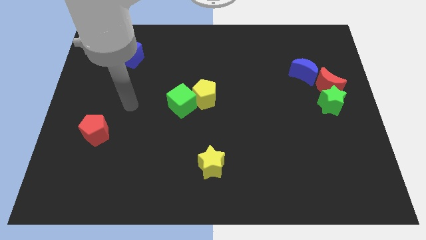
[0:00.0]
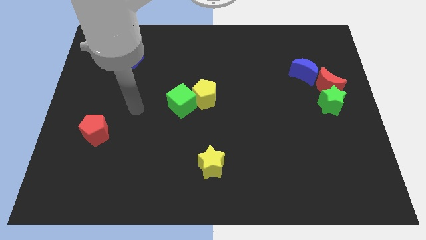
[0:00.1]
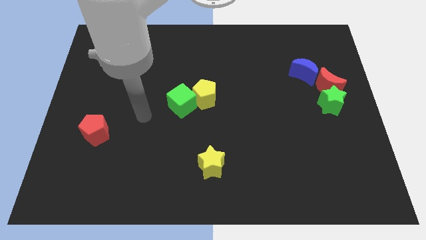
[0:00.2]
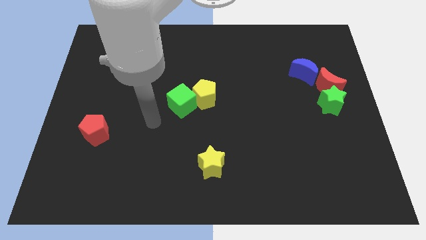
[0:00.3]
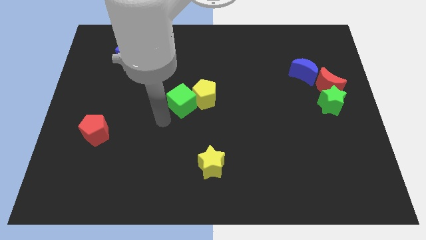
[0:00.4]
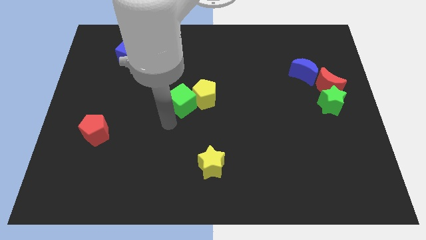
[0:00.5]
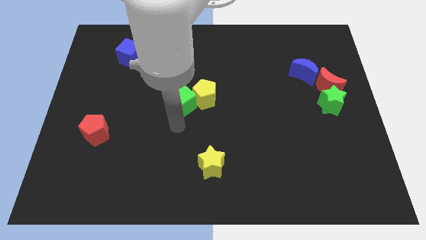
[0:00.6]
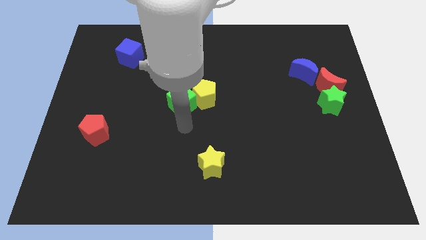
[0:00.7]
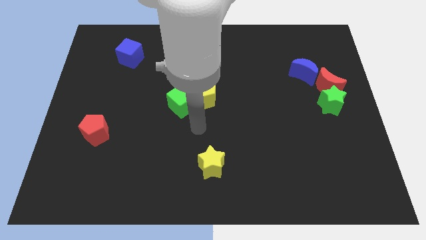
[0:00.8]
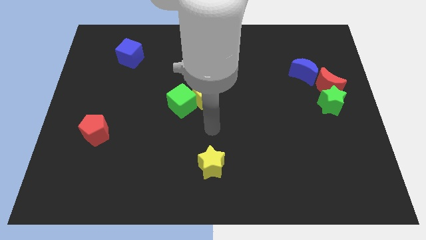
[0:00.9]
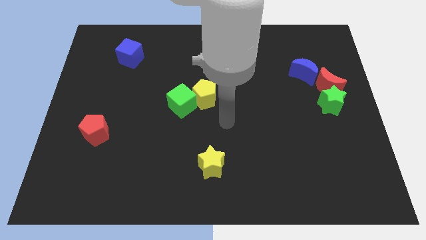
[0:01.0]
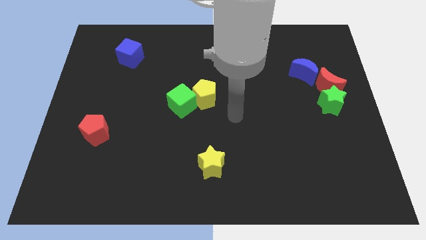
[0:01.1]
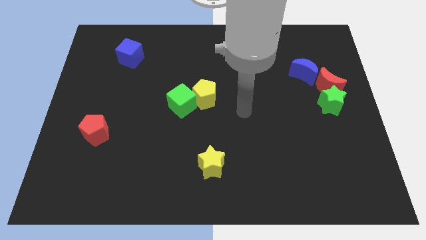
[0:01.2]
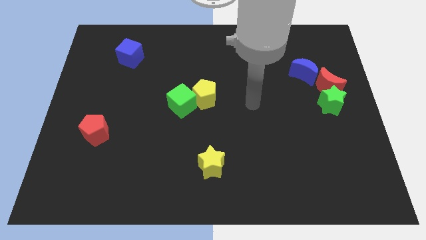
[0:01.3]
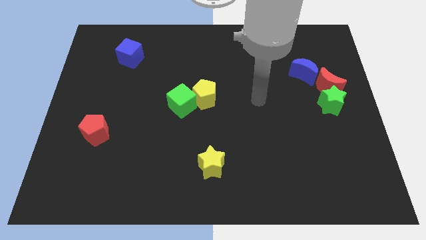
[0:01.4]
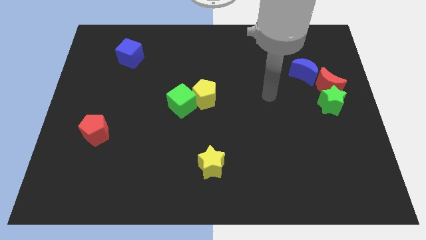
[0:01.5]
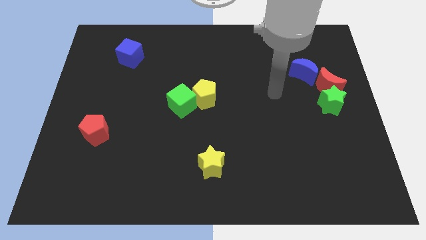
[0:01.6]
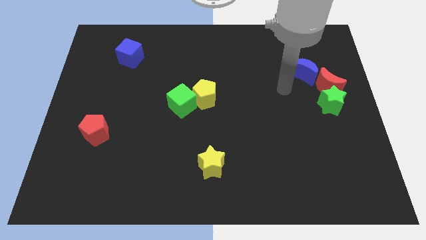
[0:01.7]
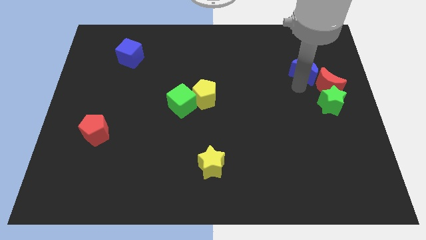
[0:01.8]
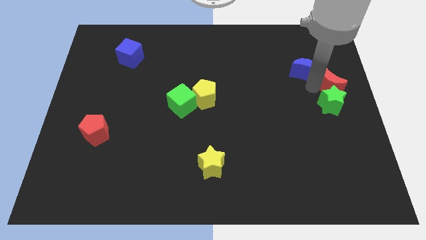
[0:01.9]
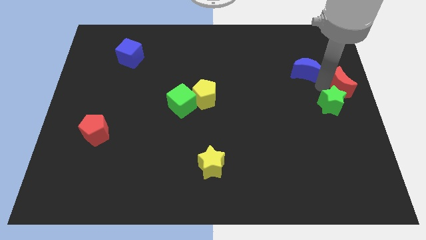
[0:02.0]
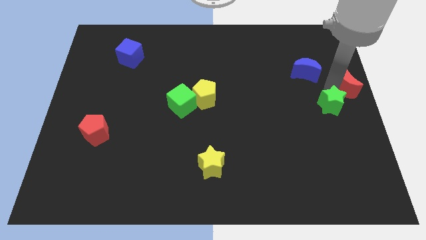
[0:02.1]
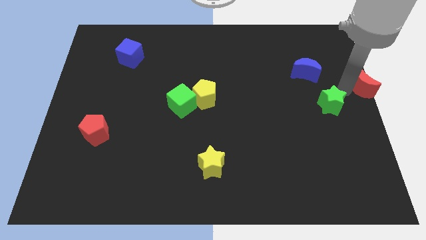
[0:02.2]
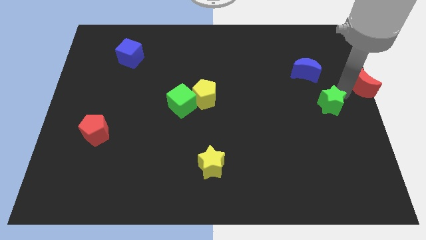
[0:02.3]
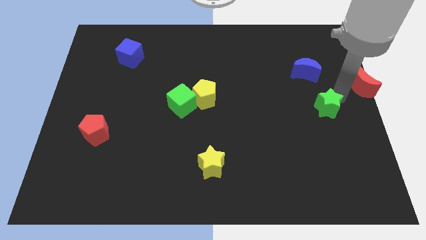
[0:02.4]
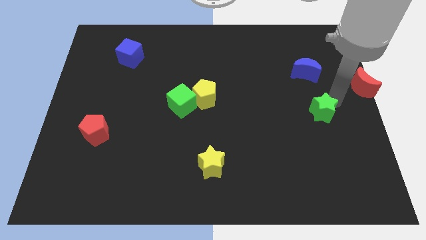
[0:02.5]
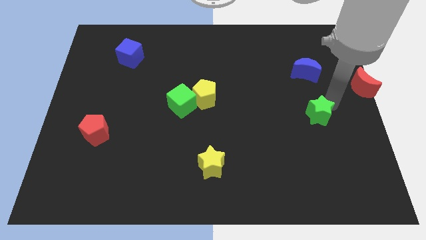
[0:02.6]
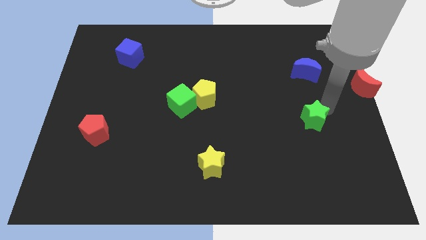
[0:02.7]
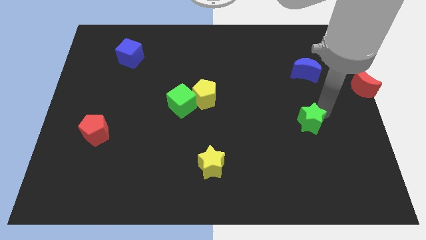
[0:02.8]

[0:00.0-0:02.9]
move the green star slightly diagonally down and to the left

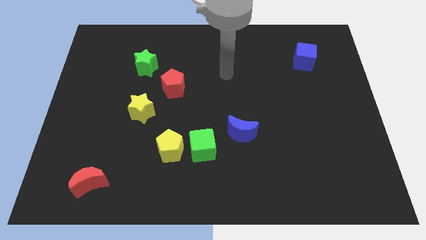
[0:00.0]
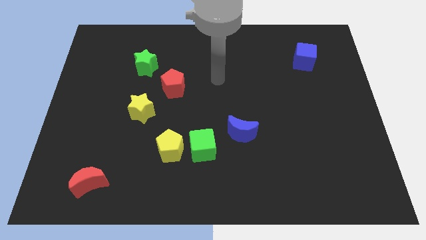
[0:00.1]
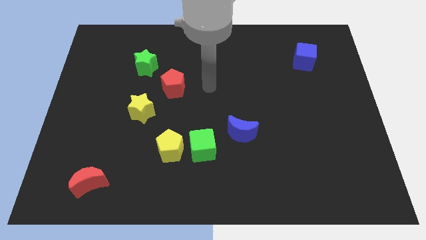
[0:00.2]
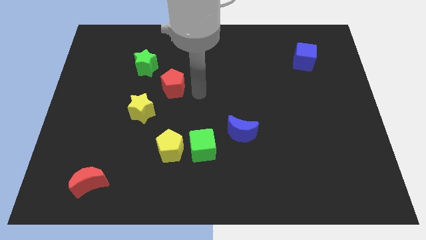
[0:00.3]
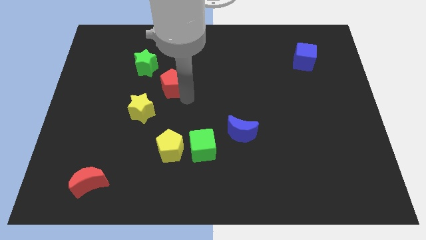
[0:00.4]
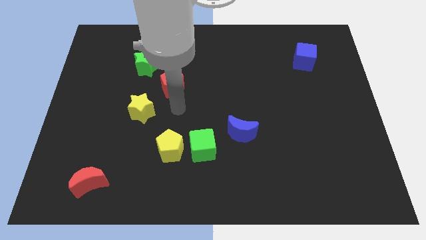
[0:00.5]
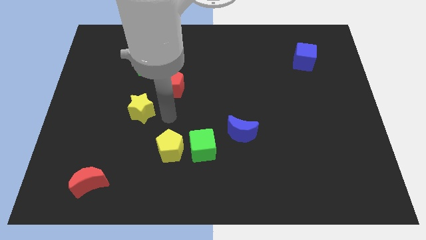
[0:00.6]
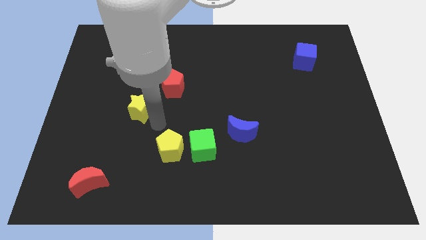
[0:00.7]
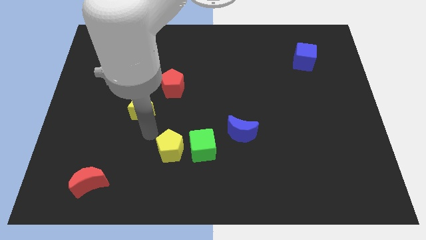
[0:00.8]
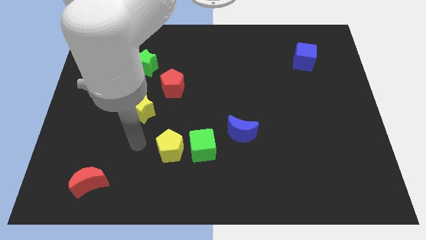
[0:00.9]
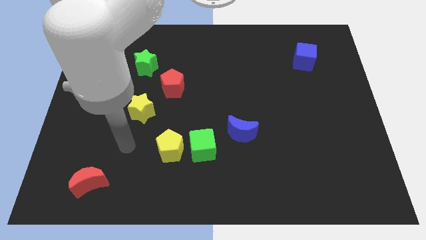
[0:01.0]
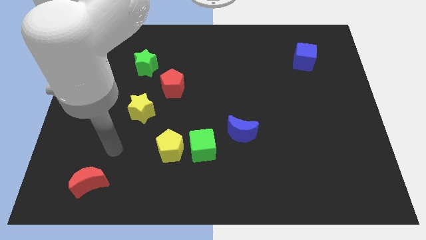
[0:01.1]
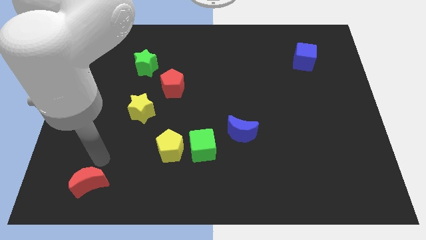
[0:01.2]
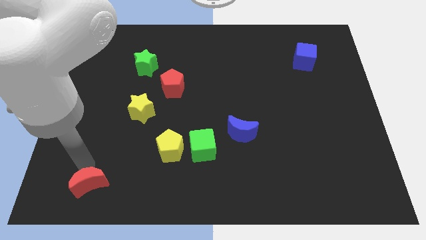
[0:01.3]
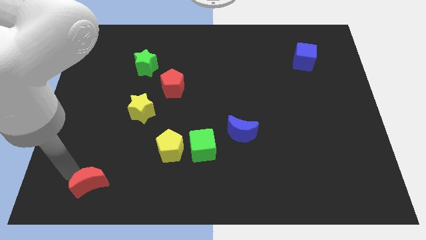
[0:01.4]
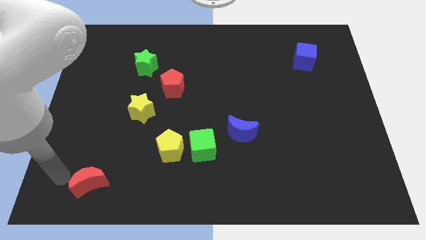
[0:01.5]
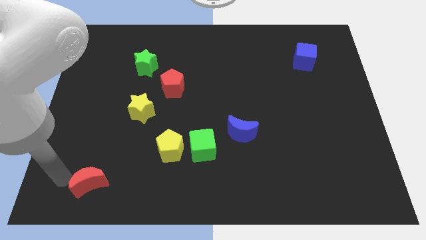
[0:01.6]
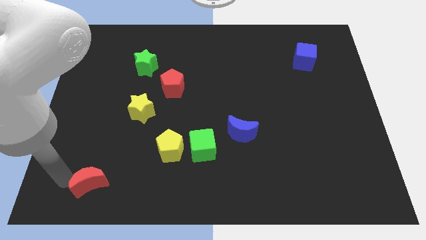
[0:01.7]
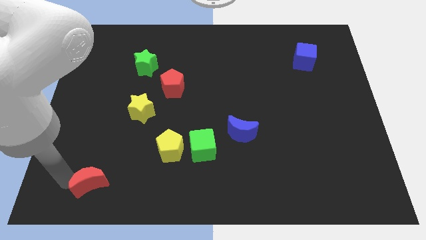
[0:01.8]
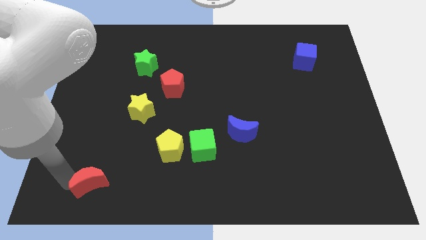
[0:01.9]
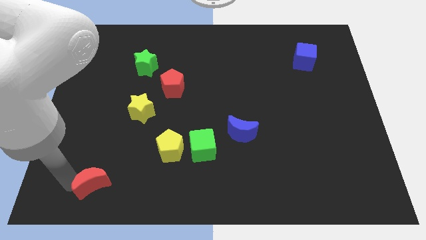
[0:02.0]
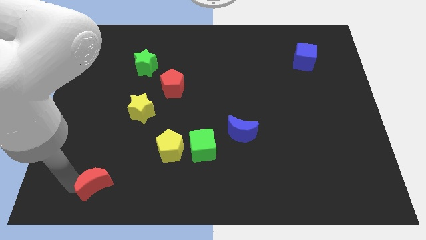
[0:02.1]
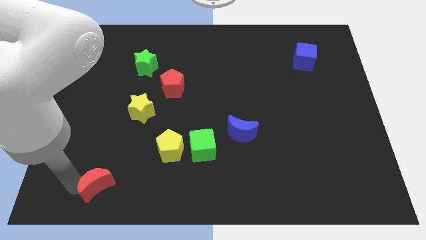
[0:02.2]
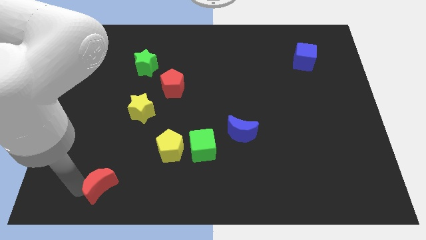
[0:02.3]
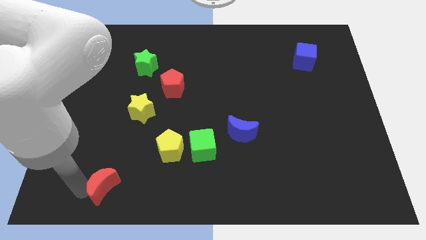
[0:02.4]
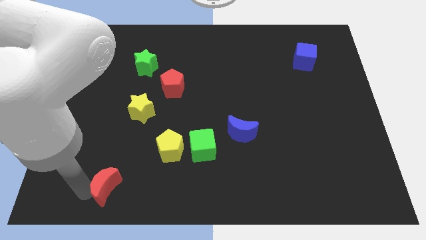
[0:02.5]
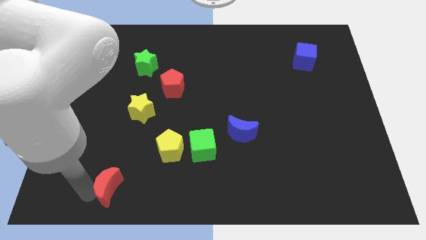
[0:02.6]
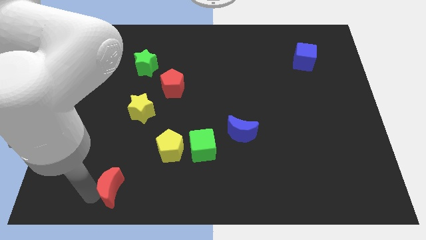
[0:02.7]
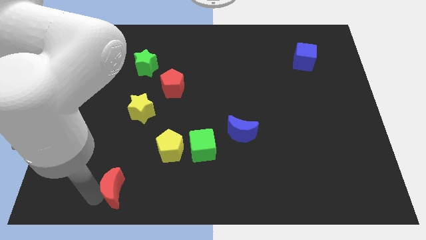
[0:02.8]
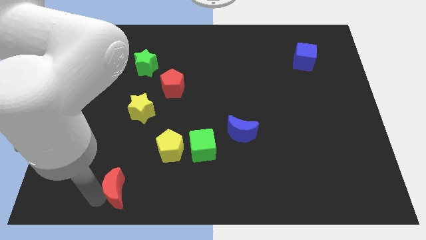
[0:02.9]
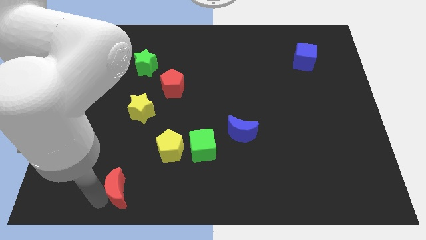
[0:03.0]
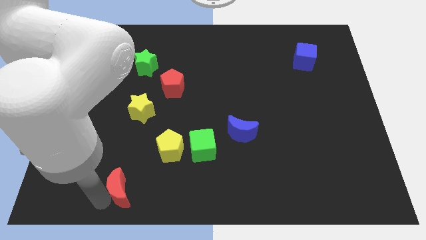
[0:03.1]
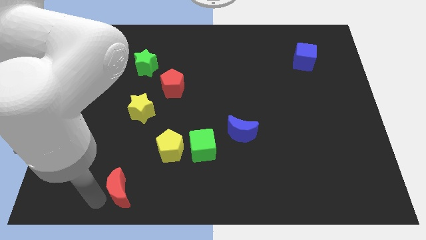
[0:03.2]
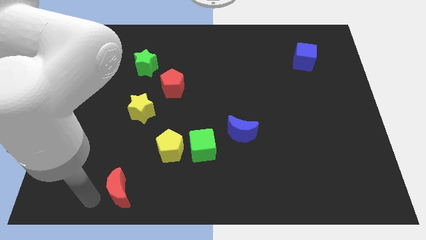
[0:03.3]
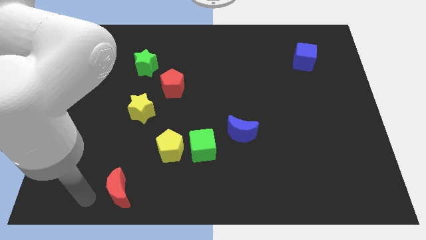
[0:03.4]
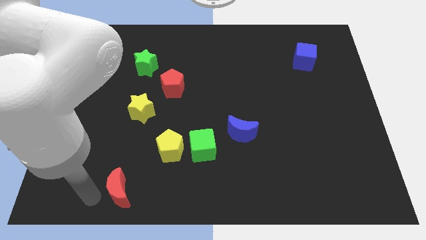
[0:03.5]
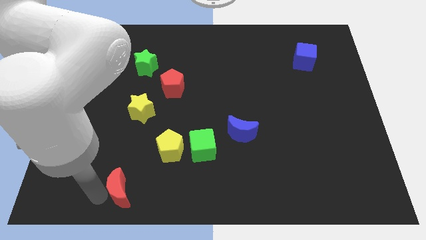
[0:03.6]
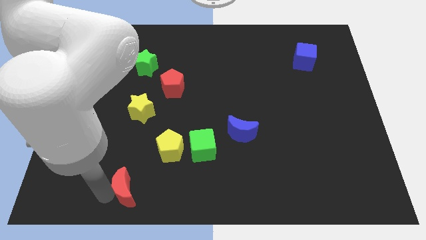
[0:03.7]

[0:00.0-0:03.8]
push the red moon slightly right

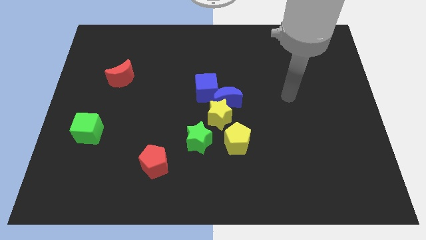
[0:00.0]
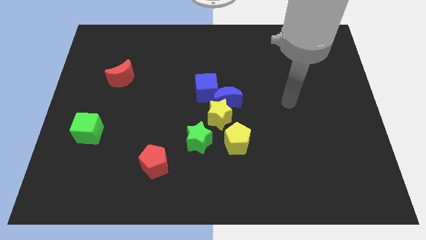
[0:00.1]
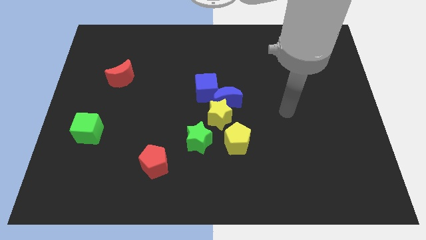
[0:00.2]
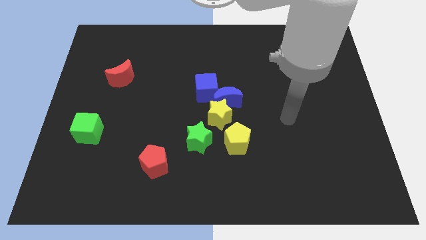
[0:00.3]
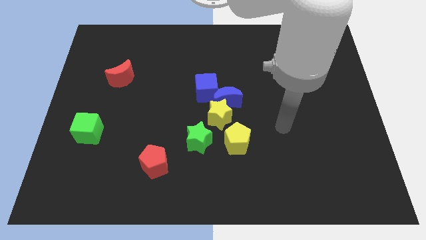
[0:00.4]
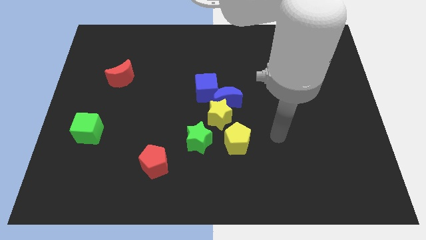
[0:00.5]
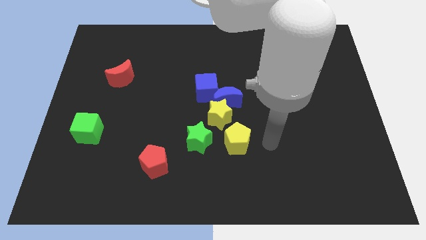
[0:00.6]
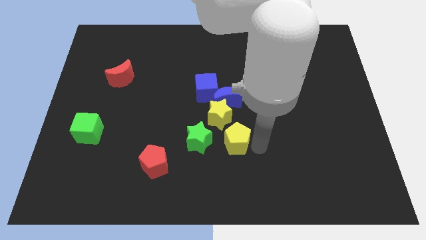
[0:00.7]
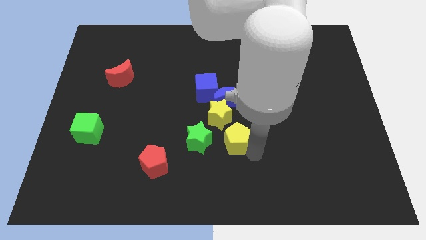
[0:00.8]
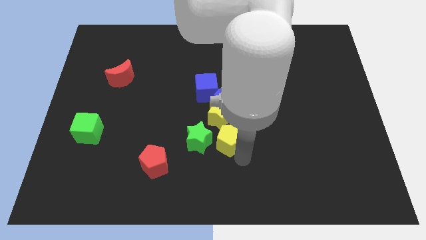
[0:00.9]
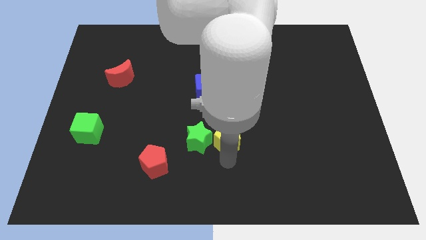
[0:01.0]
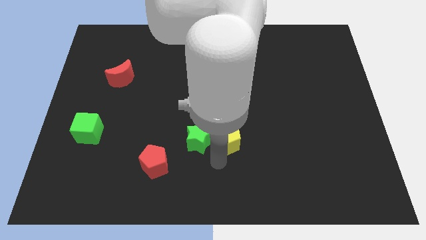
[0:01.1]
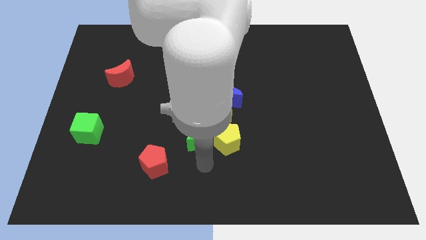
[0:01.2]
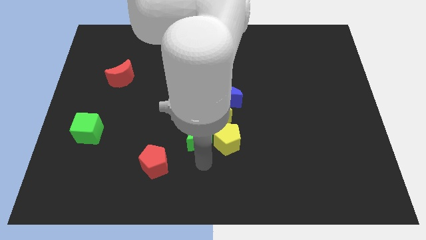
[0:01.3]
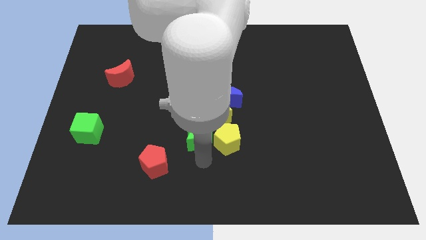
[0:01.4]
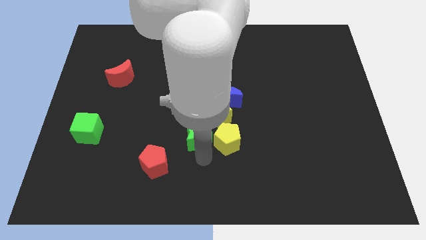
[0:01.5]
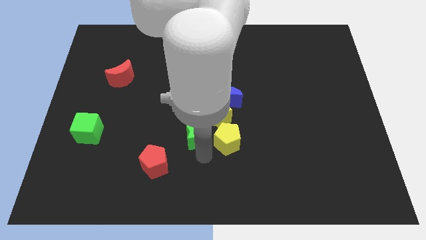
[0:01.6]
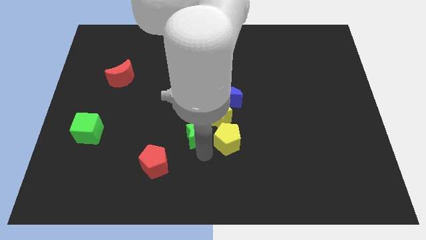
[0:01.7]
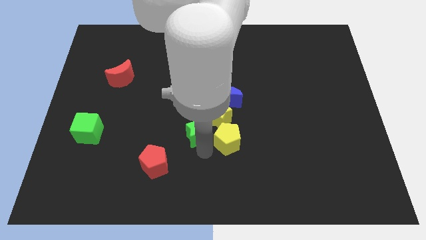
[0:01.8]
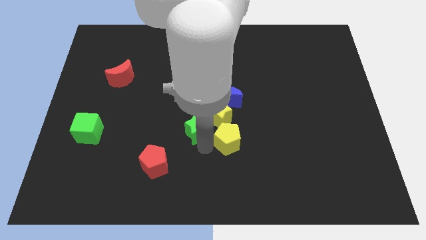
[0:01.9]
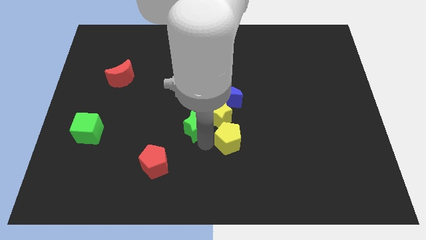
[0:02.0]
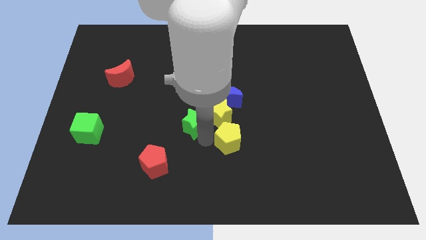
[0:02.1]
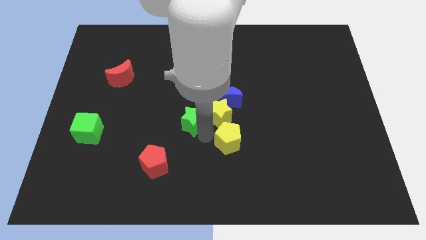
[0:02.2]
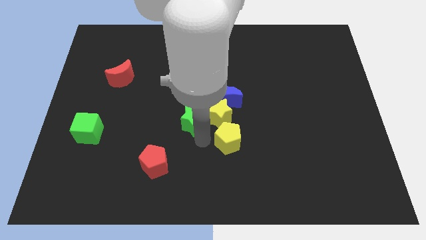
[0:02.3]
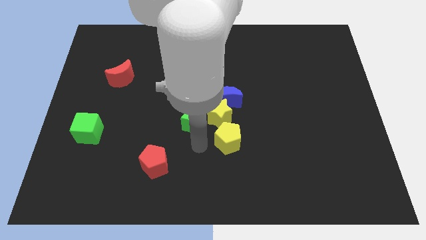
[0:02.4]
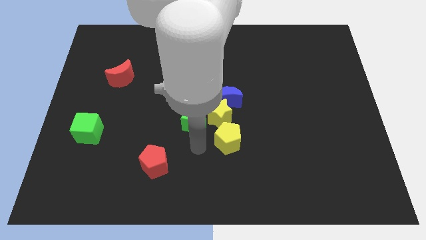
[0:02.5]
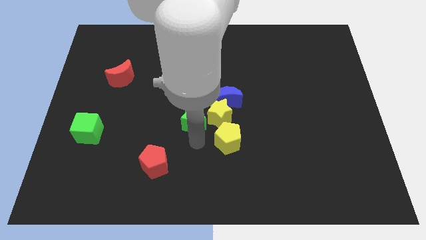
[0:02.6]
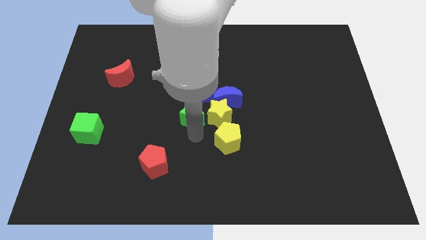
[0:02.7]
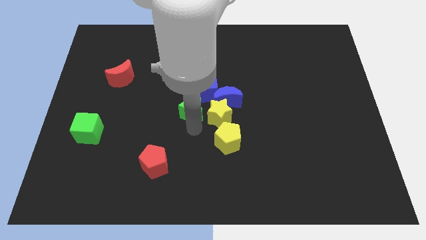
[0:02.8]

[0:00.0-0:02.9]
slightly push the green star upwards
